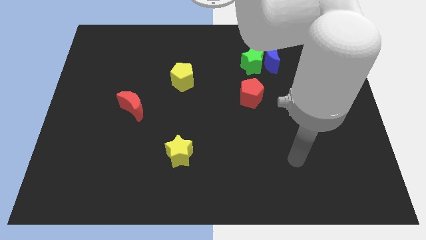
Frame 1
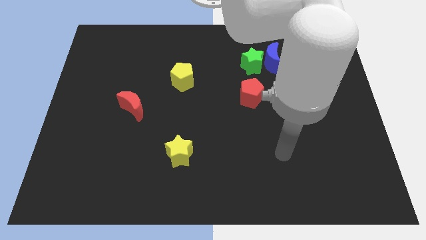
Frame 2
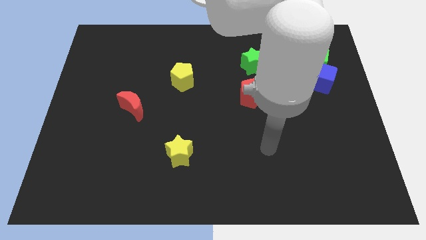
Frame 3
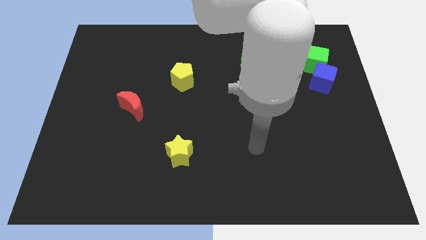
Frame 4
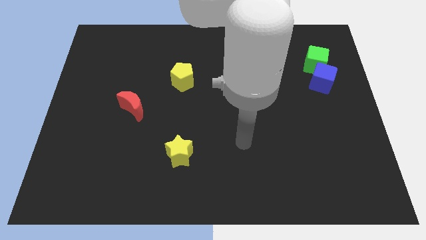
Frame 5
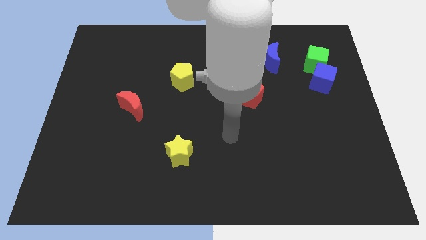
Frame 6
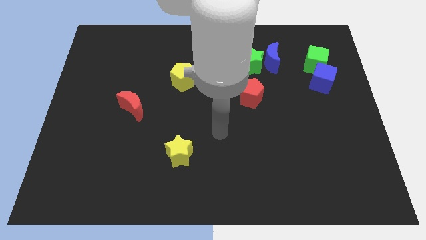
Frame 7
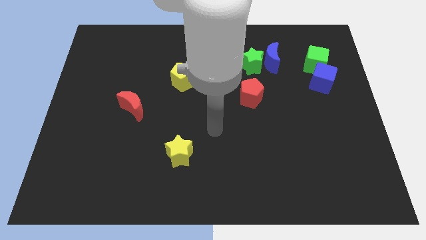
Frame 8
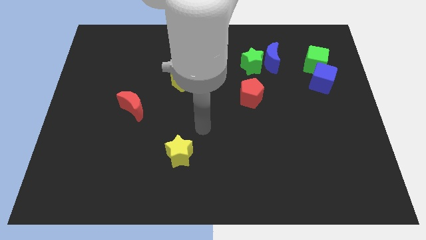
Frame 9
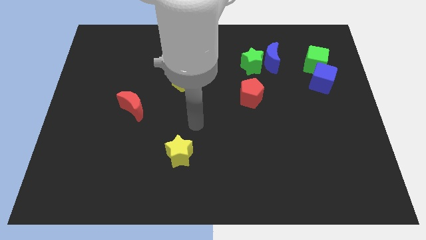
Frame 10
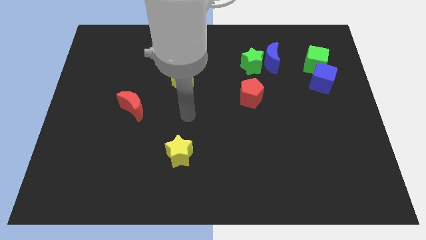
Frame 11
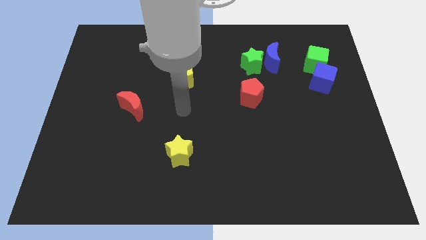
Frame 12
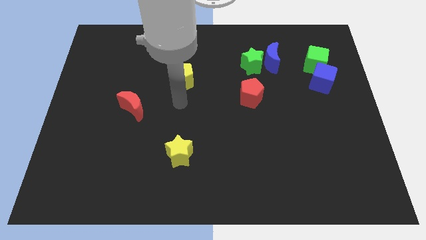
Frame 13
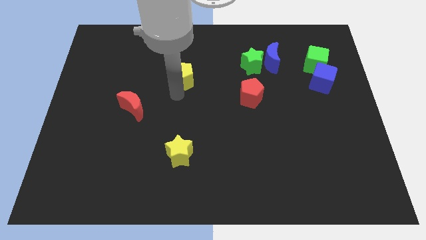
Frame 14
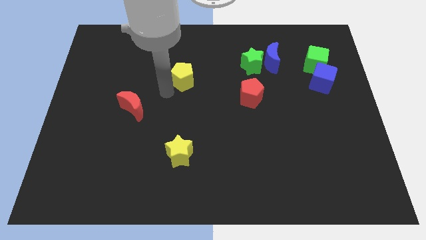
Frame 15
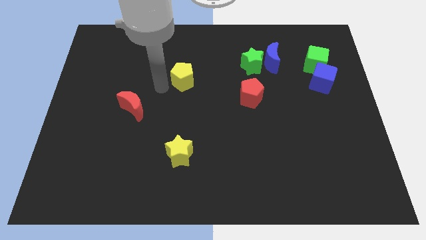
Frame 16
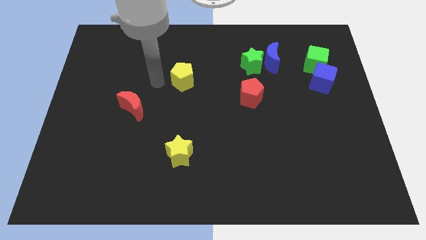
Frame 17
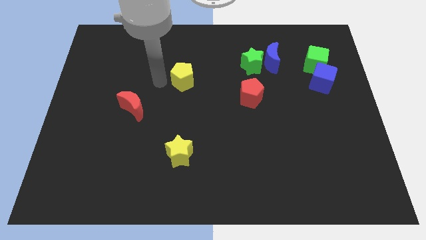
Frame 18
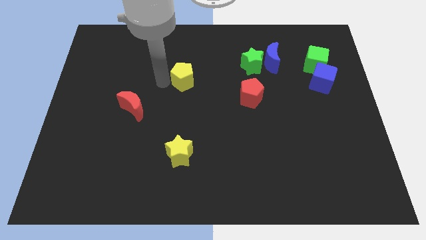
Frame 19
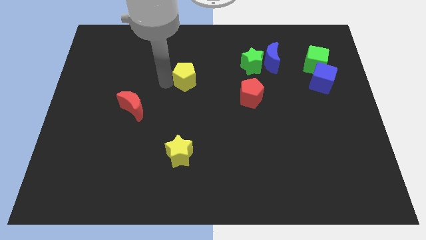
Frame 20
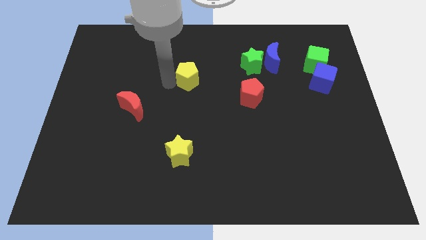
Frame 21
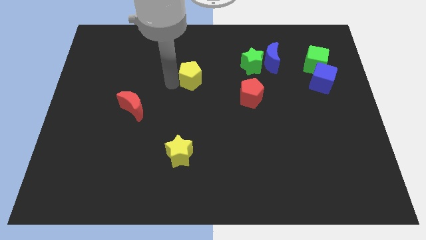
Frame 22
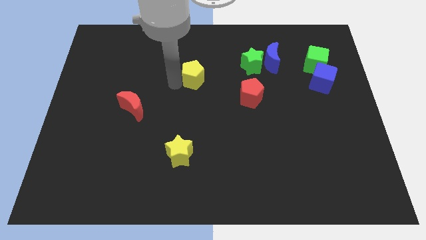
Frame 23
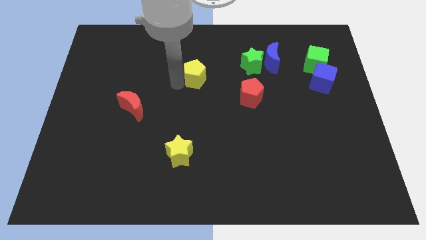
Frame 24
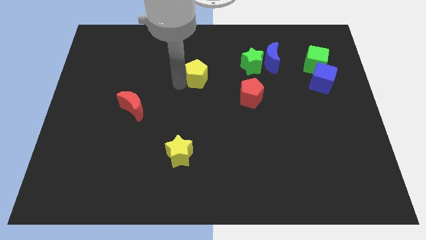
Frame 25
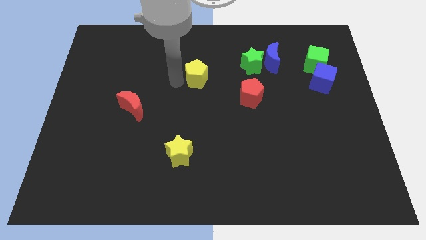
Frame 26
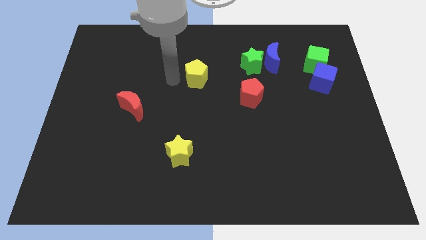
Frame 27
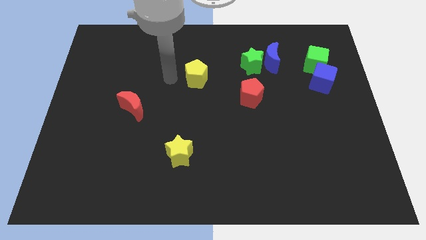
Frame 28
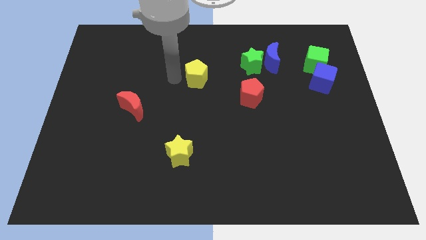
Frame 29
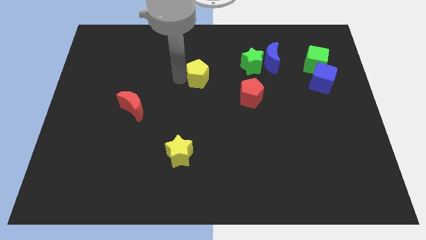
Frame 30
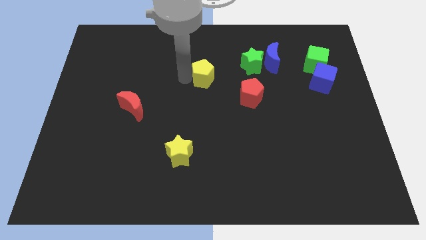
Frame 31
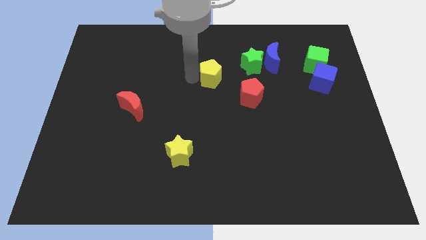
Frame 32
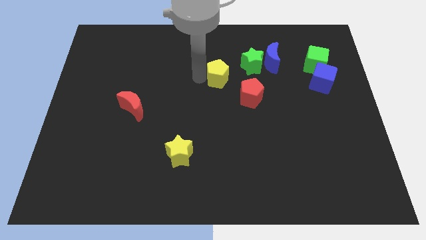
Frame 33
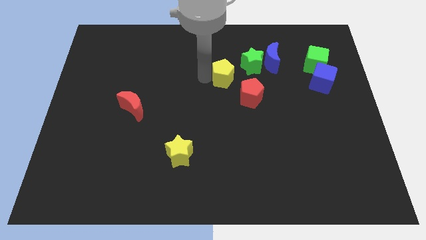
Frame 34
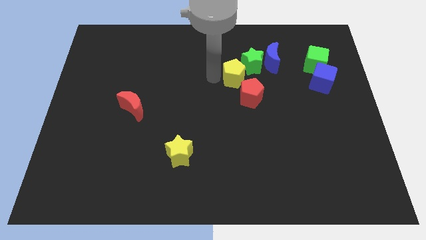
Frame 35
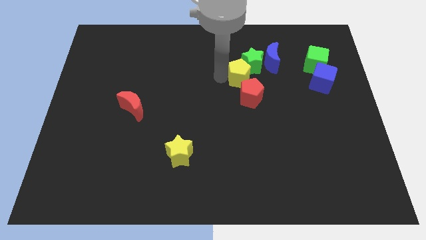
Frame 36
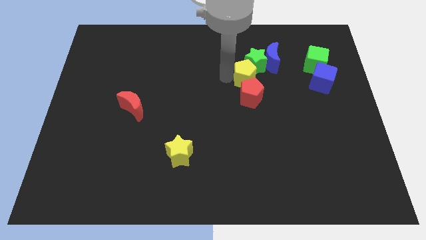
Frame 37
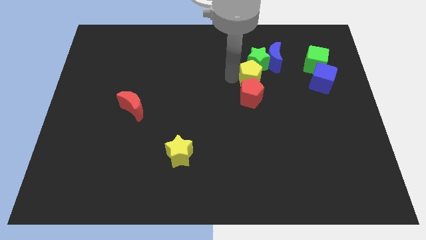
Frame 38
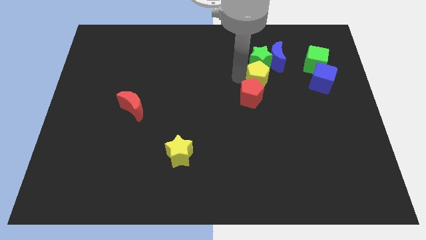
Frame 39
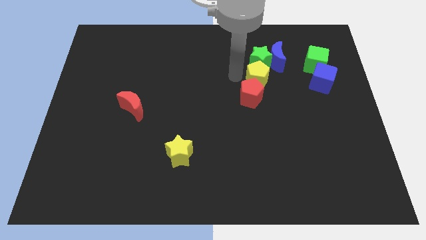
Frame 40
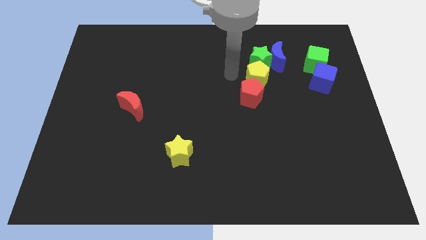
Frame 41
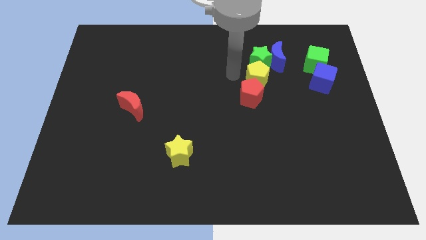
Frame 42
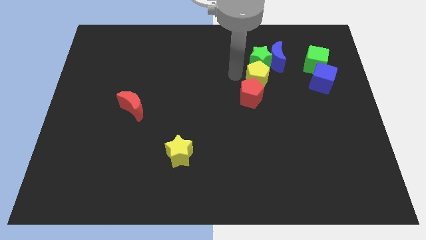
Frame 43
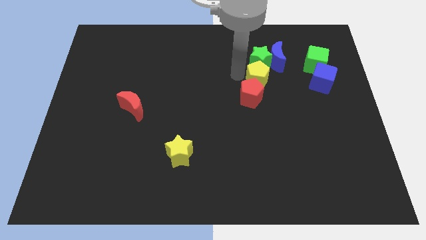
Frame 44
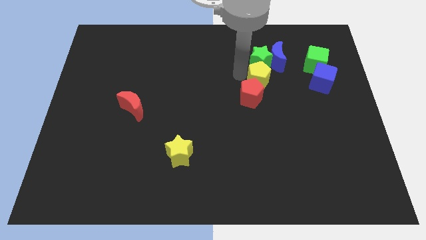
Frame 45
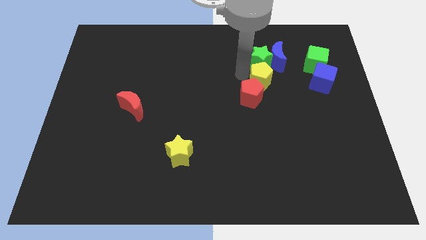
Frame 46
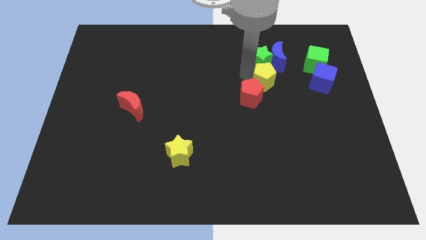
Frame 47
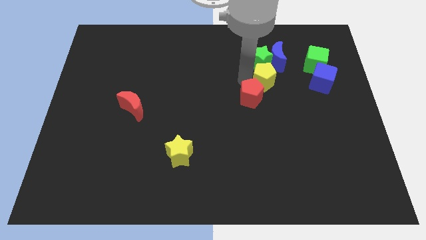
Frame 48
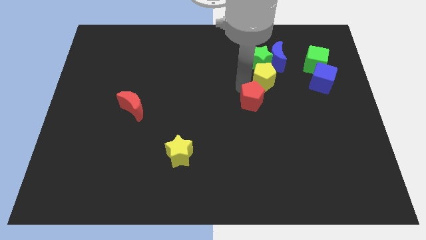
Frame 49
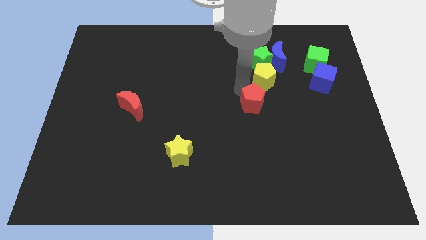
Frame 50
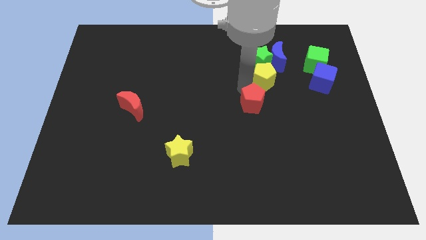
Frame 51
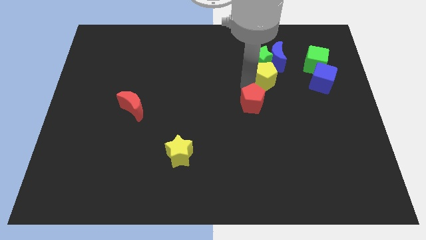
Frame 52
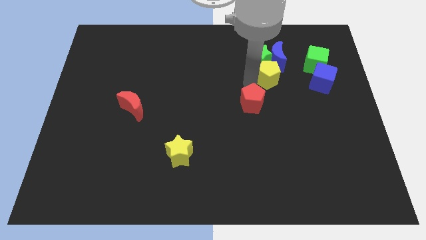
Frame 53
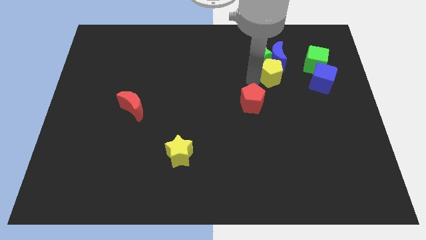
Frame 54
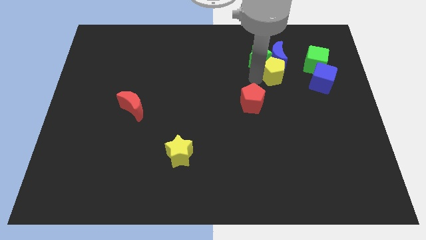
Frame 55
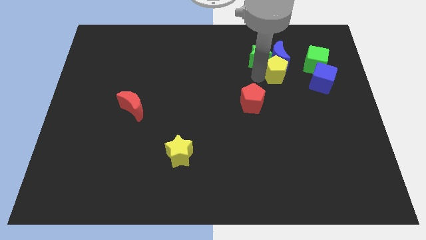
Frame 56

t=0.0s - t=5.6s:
move the yellow pentagon to the right side of the green star

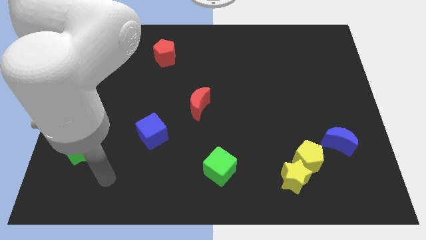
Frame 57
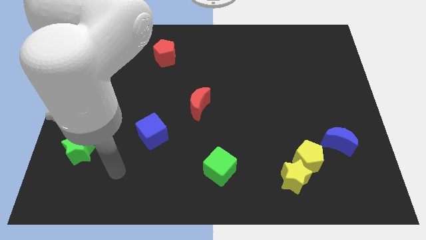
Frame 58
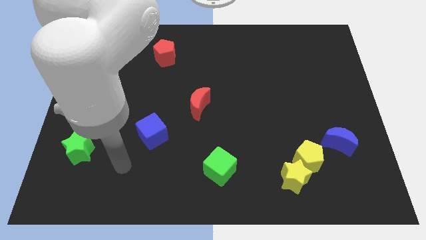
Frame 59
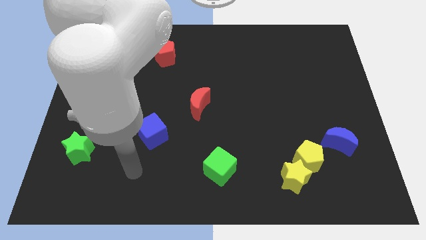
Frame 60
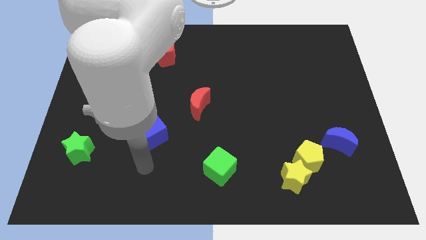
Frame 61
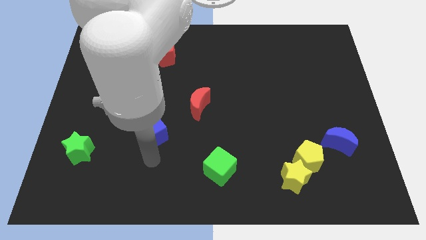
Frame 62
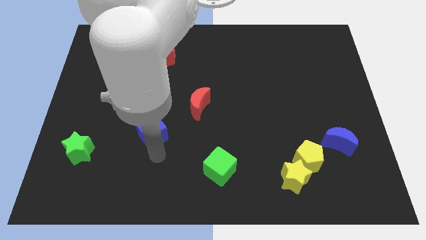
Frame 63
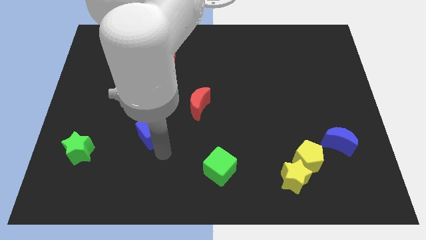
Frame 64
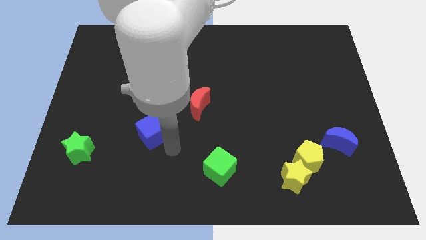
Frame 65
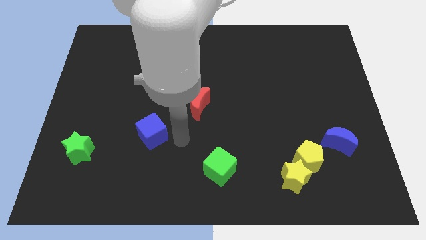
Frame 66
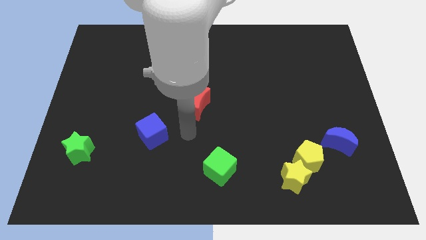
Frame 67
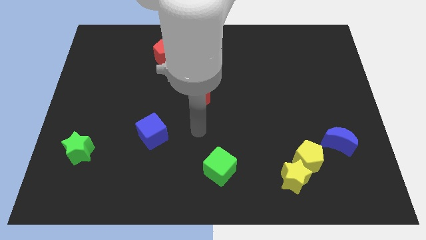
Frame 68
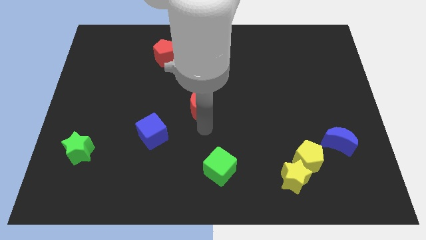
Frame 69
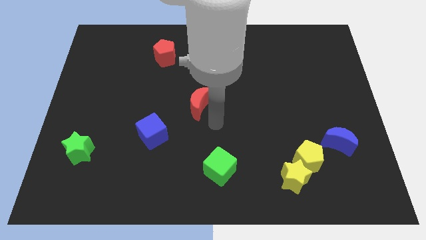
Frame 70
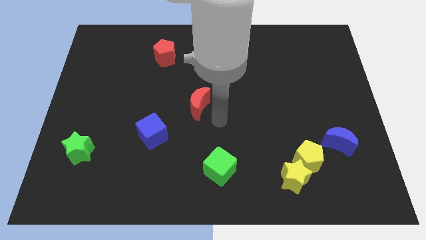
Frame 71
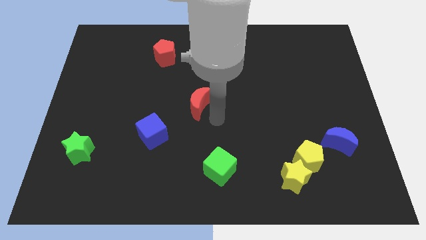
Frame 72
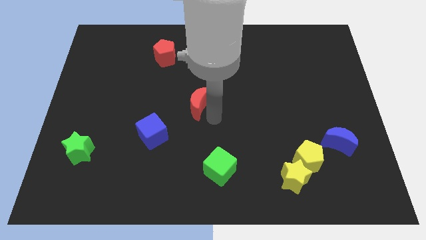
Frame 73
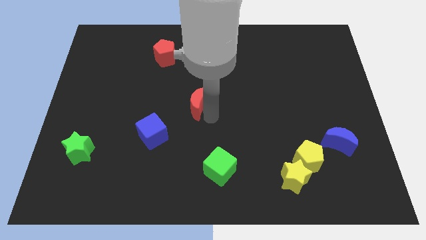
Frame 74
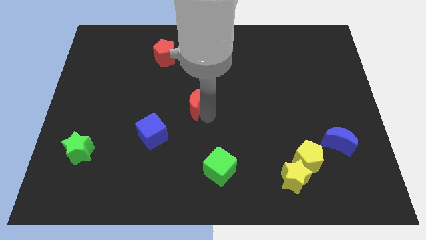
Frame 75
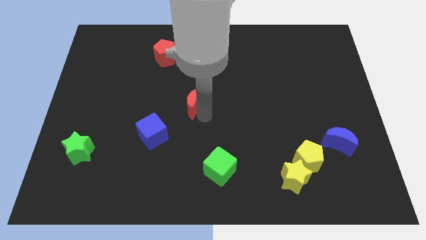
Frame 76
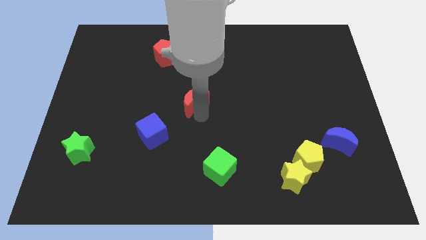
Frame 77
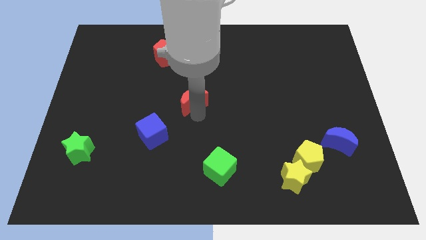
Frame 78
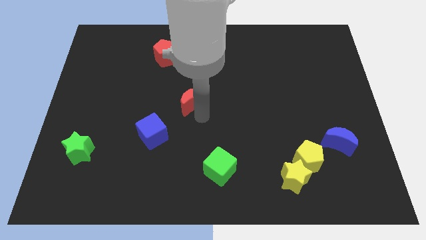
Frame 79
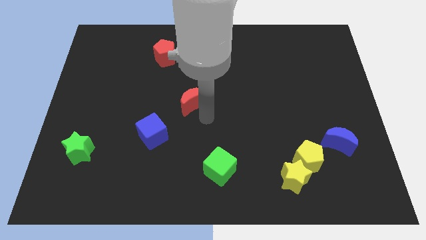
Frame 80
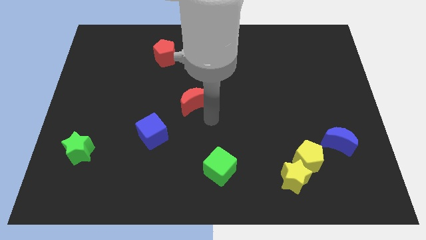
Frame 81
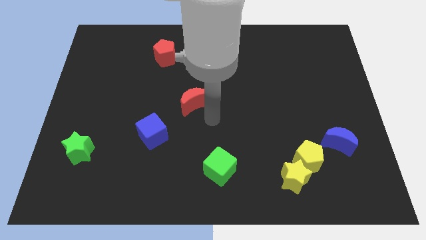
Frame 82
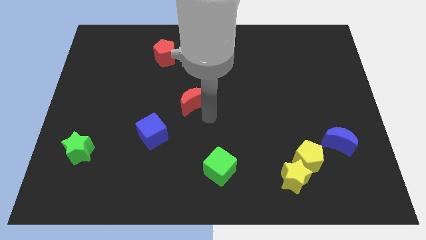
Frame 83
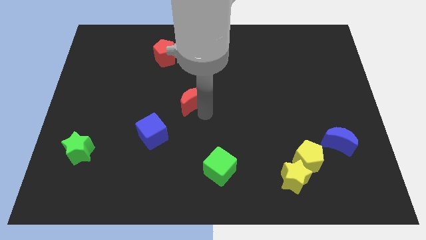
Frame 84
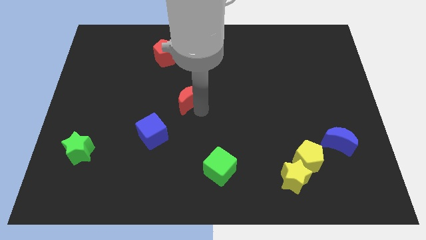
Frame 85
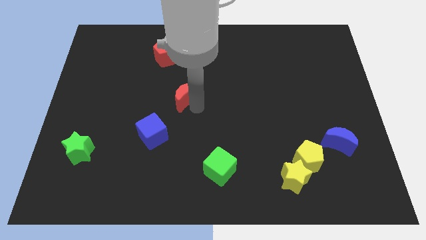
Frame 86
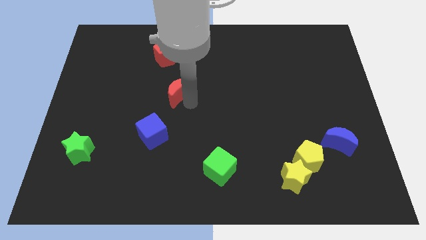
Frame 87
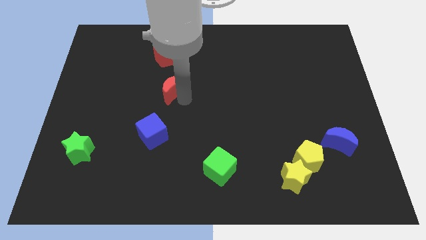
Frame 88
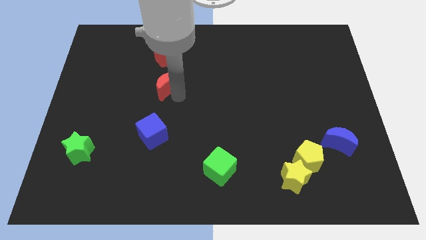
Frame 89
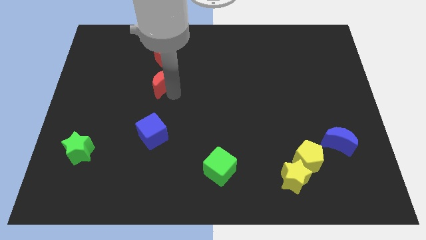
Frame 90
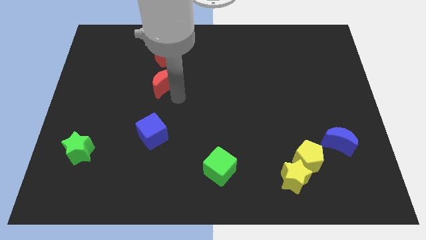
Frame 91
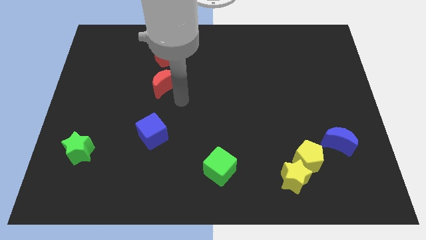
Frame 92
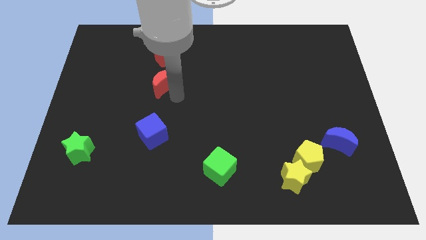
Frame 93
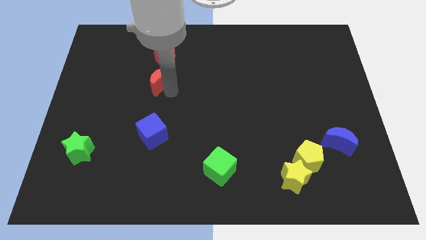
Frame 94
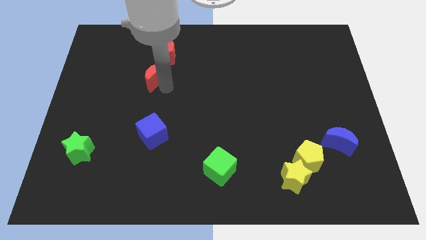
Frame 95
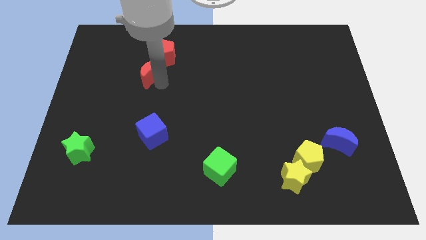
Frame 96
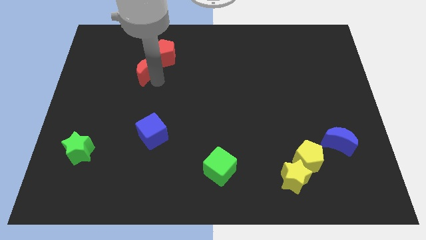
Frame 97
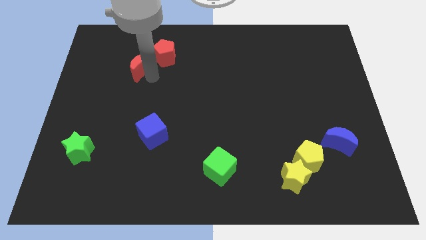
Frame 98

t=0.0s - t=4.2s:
slide the red moon left of the red pentagon
